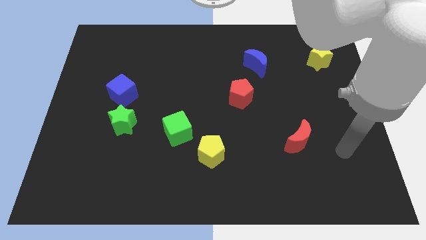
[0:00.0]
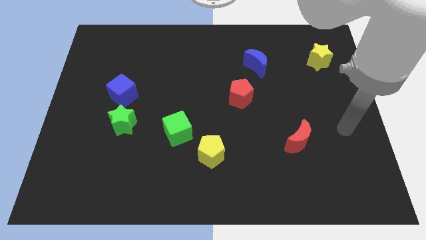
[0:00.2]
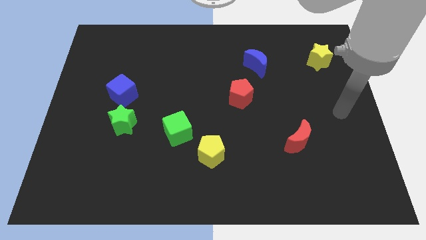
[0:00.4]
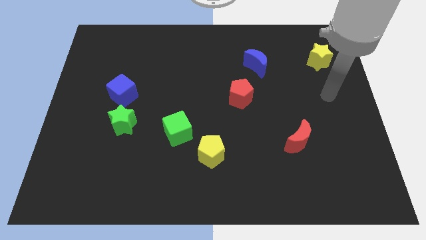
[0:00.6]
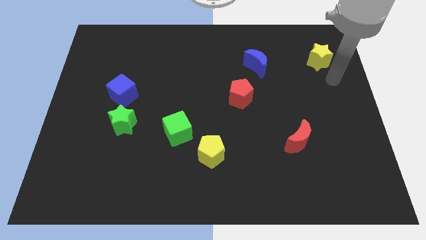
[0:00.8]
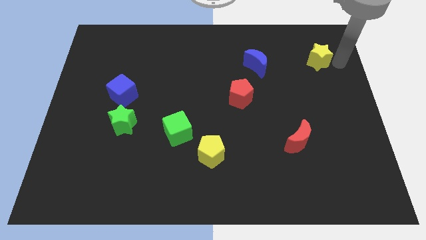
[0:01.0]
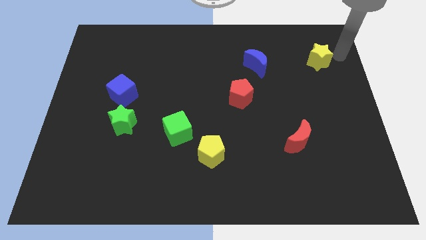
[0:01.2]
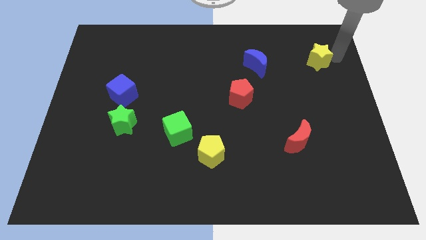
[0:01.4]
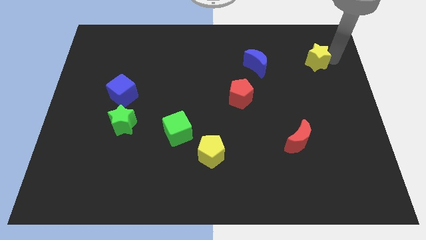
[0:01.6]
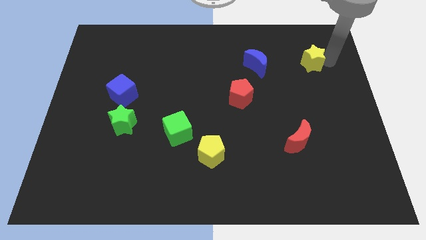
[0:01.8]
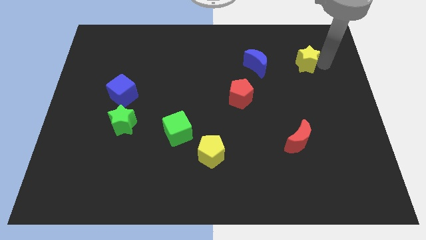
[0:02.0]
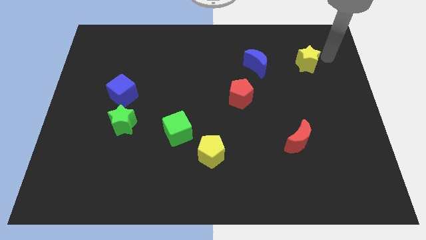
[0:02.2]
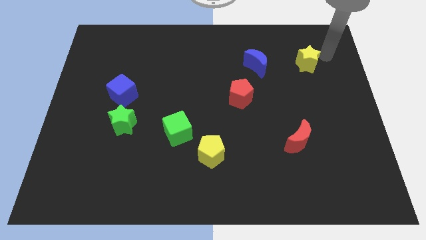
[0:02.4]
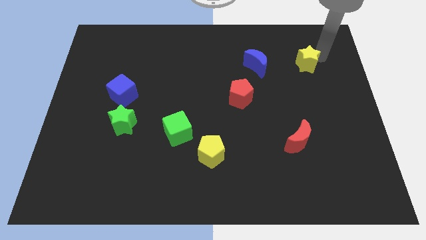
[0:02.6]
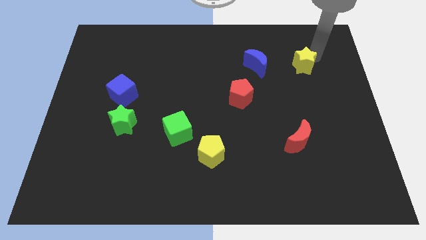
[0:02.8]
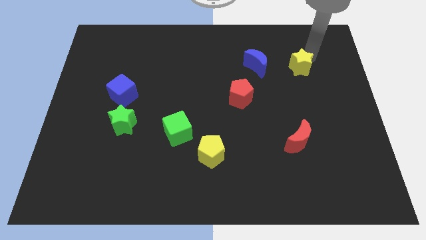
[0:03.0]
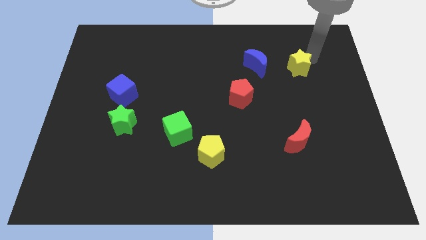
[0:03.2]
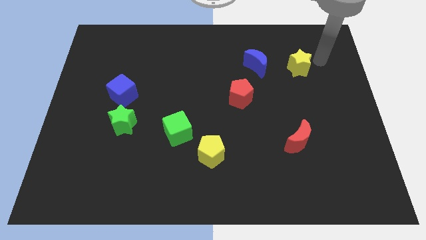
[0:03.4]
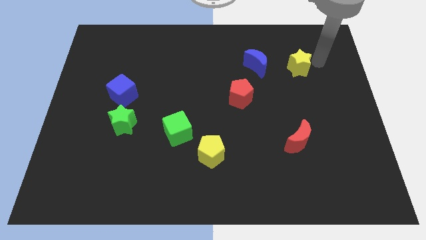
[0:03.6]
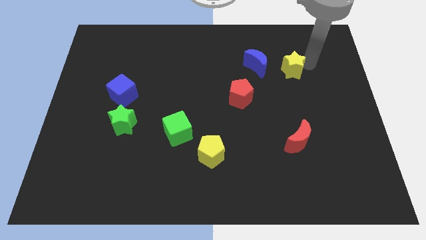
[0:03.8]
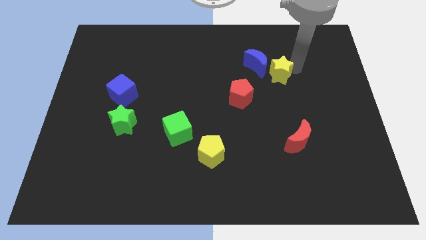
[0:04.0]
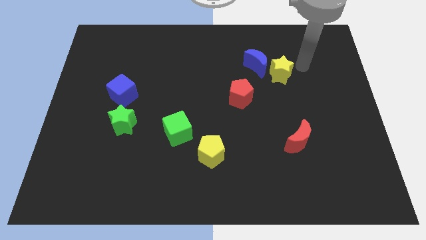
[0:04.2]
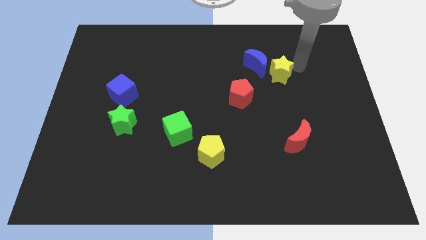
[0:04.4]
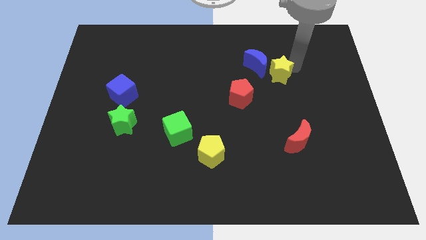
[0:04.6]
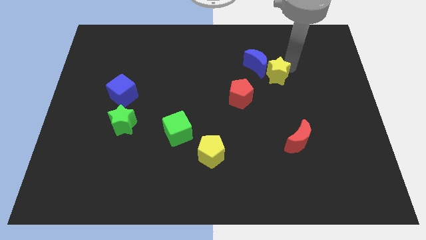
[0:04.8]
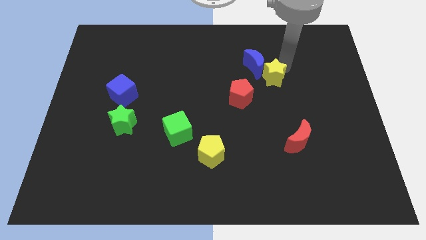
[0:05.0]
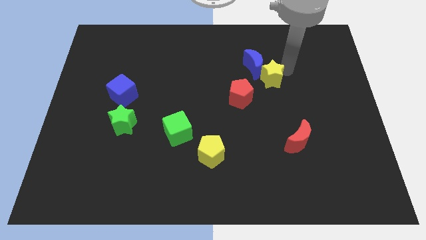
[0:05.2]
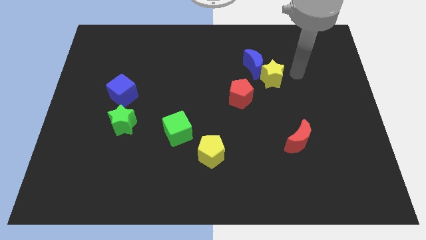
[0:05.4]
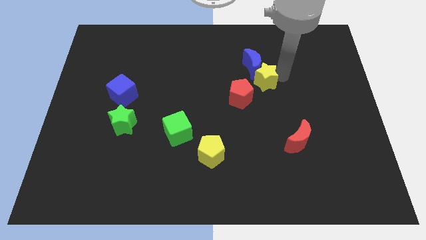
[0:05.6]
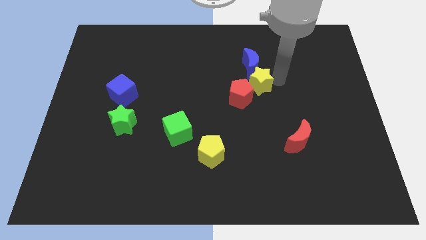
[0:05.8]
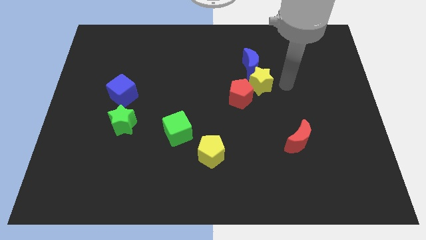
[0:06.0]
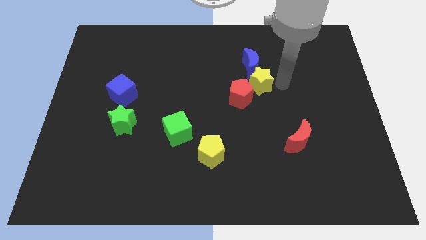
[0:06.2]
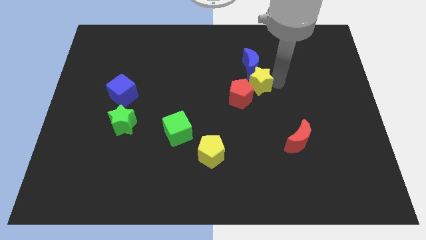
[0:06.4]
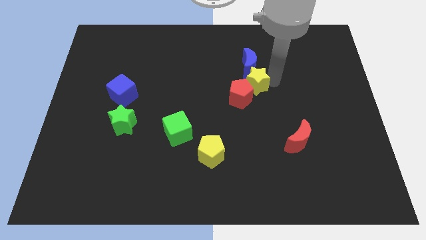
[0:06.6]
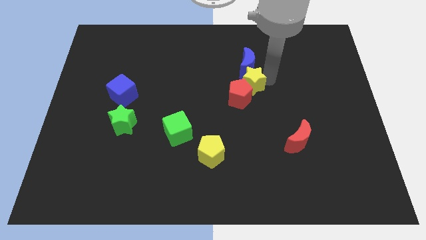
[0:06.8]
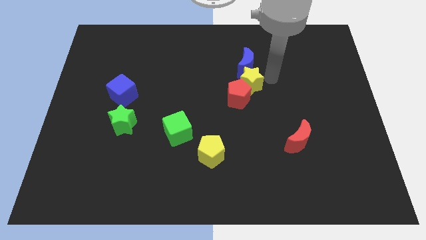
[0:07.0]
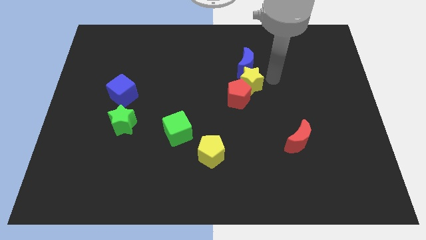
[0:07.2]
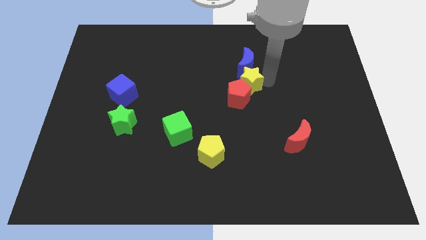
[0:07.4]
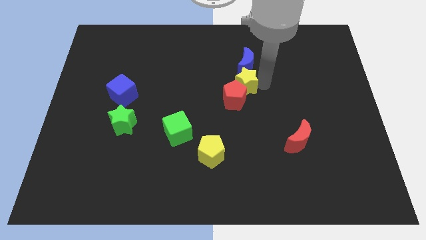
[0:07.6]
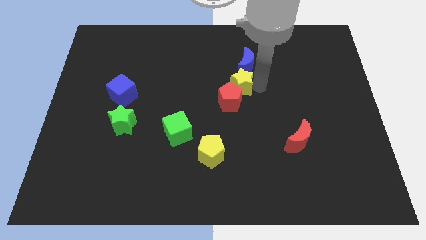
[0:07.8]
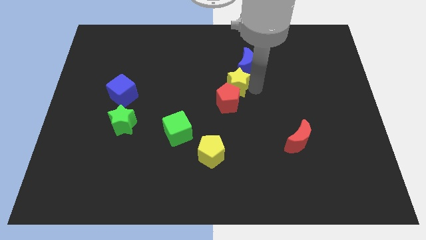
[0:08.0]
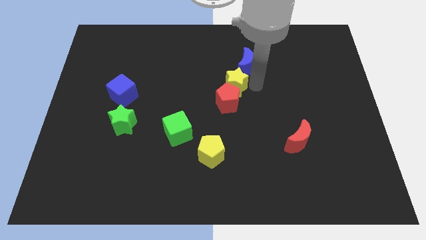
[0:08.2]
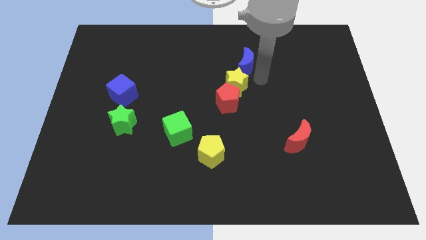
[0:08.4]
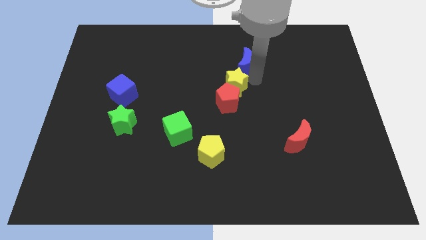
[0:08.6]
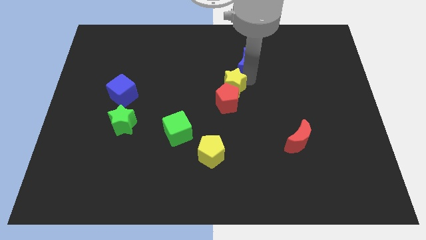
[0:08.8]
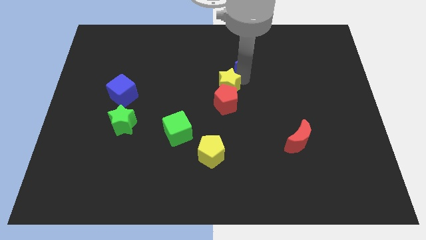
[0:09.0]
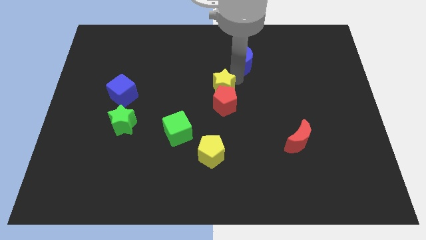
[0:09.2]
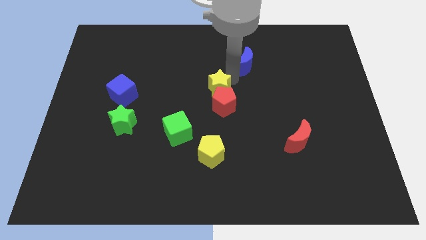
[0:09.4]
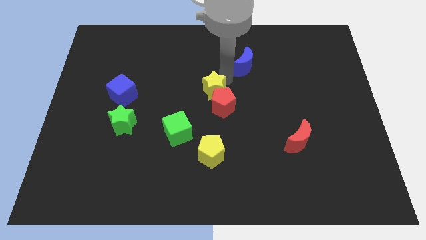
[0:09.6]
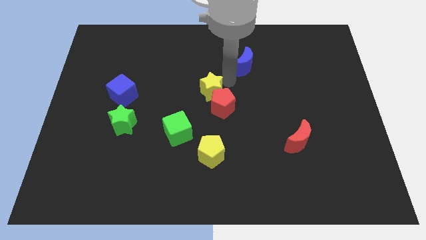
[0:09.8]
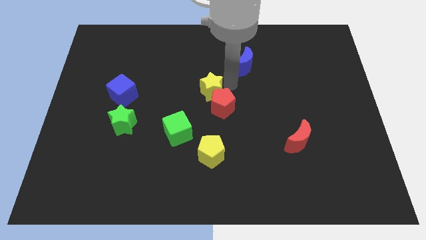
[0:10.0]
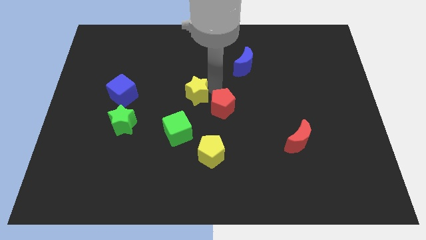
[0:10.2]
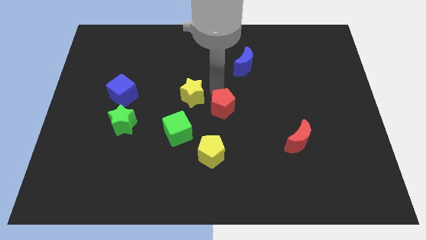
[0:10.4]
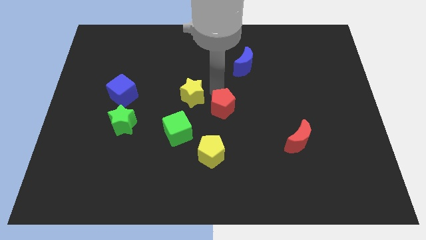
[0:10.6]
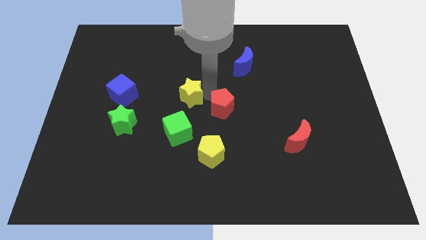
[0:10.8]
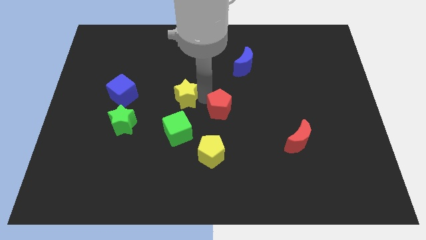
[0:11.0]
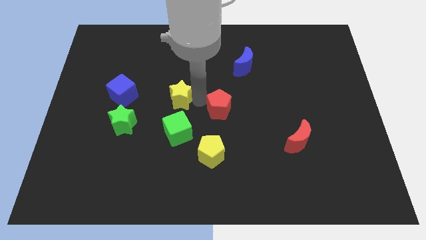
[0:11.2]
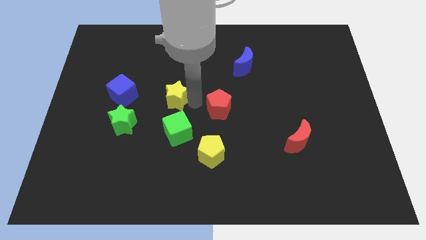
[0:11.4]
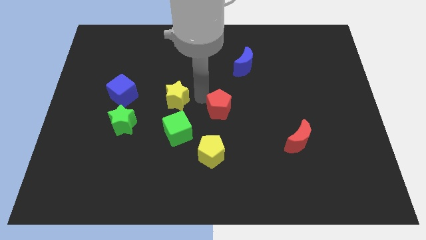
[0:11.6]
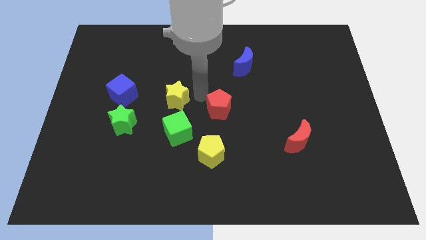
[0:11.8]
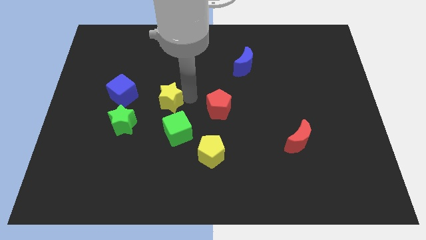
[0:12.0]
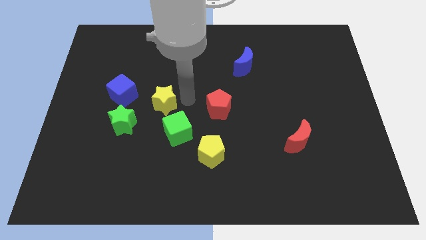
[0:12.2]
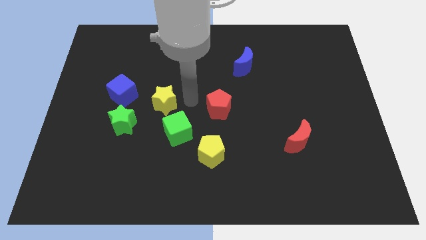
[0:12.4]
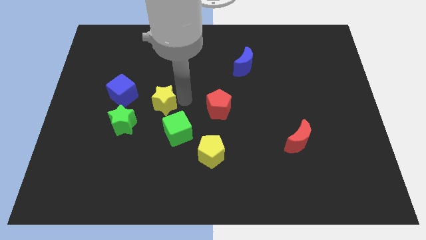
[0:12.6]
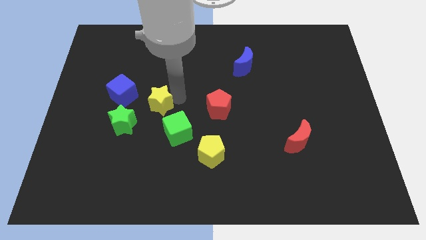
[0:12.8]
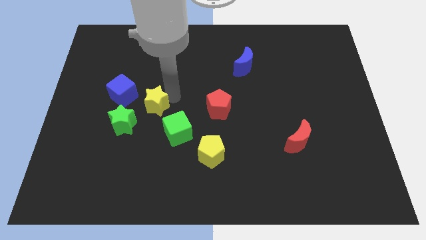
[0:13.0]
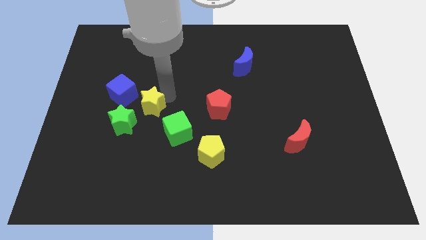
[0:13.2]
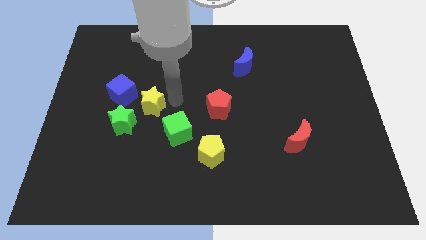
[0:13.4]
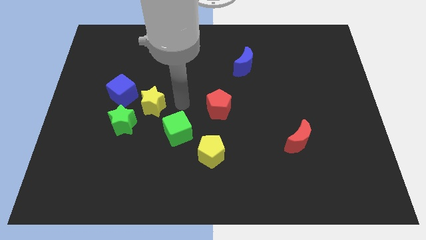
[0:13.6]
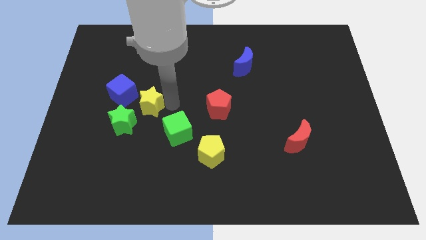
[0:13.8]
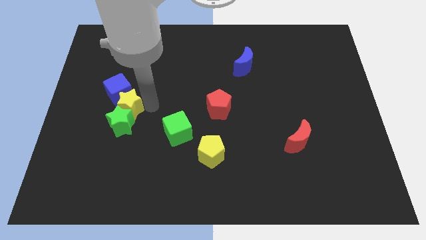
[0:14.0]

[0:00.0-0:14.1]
slide the yellow star to the top left side of the green star

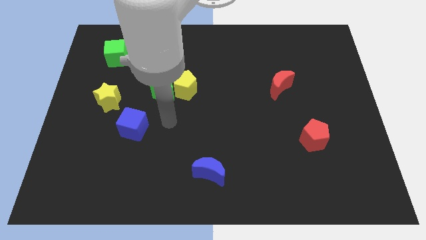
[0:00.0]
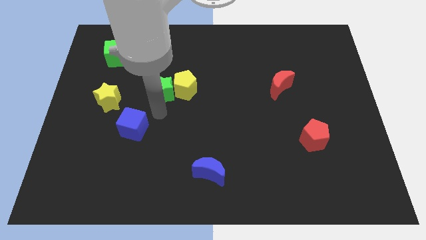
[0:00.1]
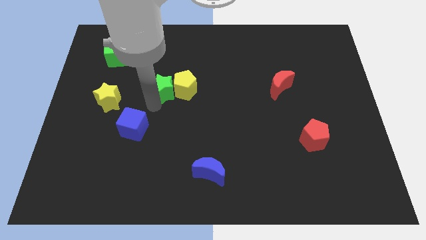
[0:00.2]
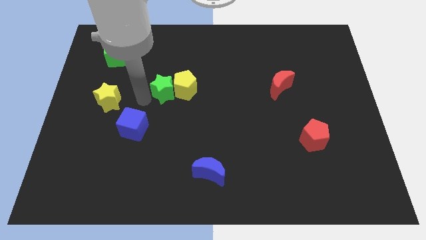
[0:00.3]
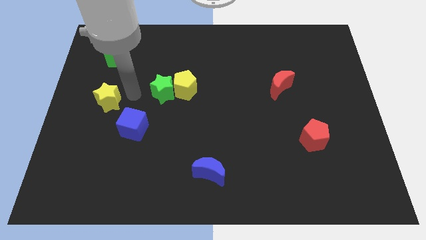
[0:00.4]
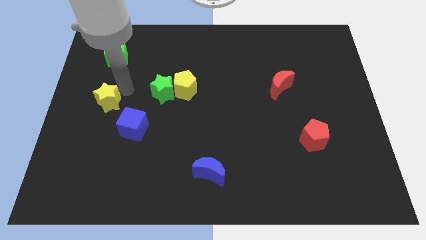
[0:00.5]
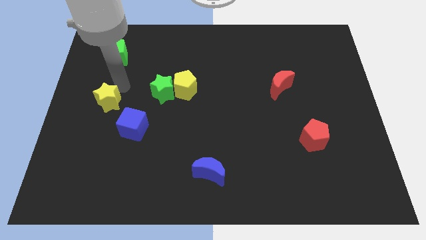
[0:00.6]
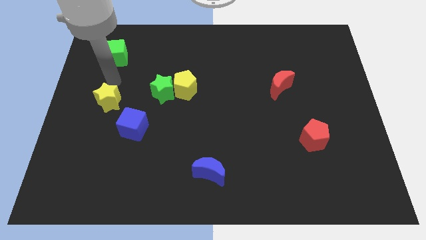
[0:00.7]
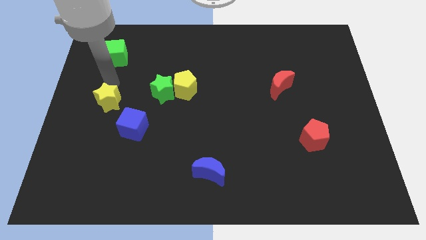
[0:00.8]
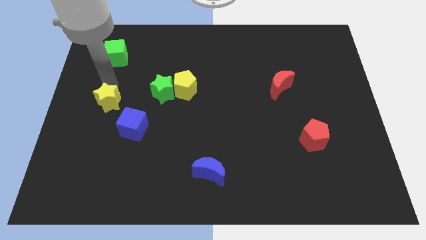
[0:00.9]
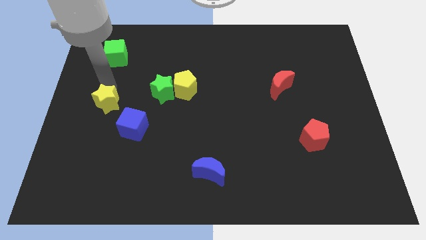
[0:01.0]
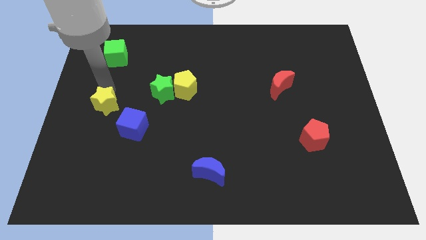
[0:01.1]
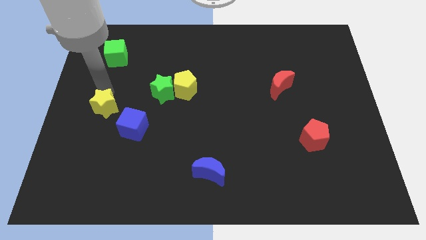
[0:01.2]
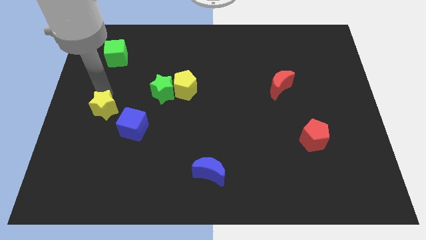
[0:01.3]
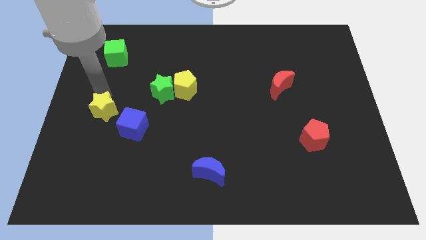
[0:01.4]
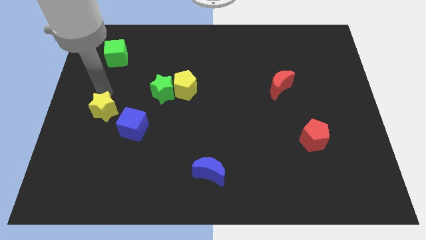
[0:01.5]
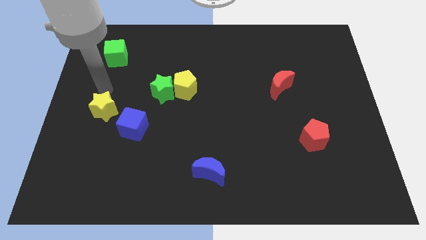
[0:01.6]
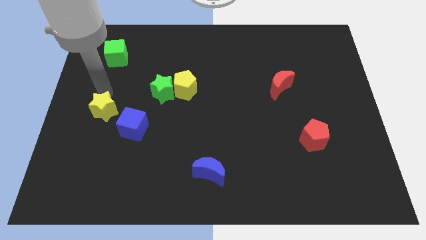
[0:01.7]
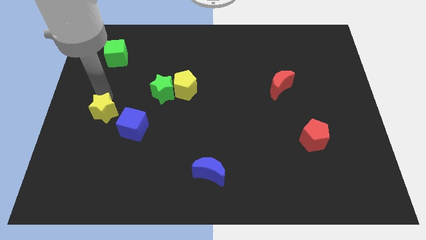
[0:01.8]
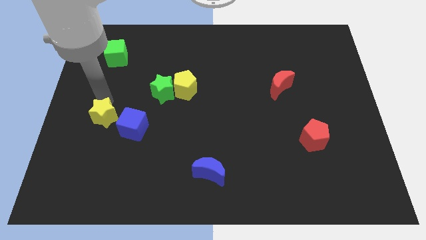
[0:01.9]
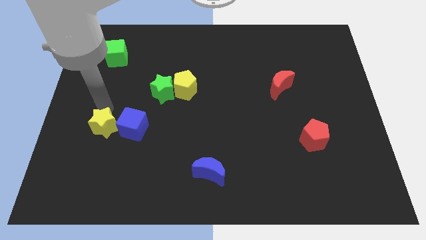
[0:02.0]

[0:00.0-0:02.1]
move the yellow star to the bottom left of the blue cube
